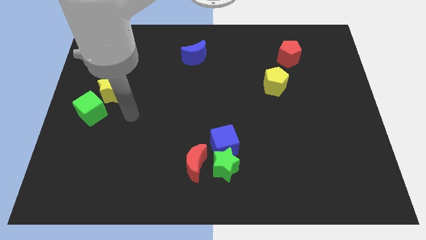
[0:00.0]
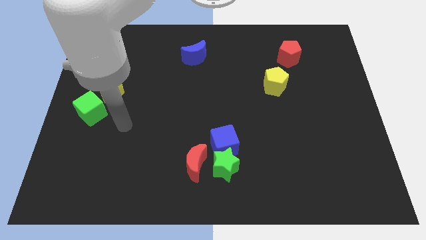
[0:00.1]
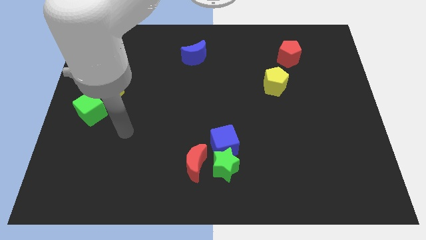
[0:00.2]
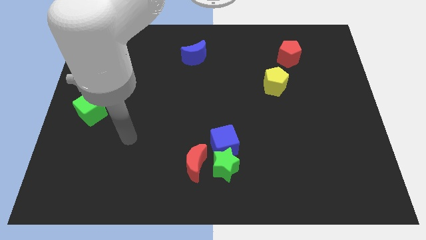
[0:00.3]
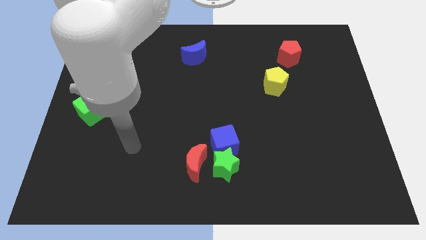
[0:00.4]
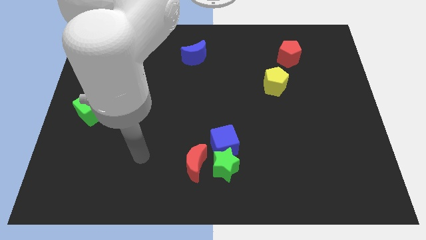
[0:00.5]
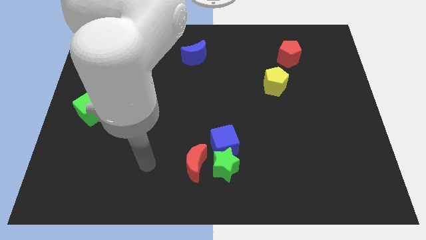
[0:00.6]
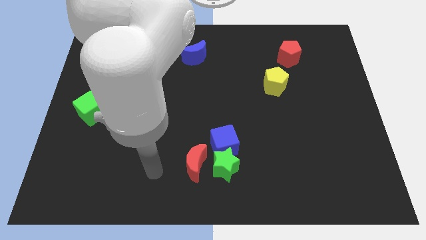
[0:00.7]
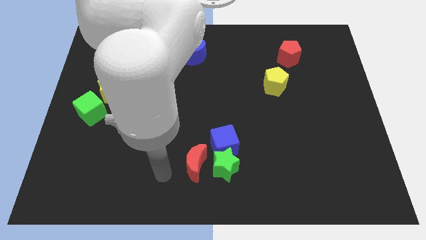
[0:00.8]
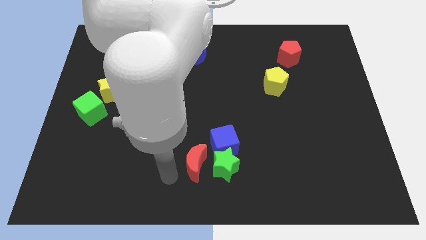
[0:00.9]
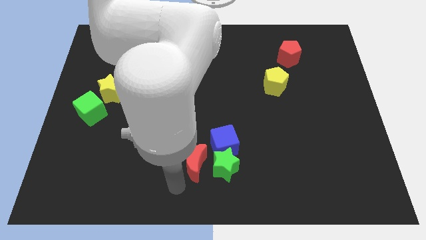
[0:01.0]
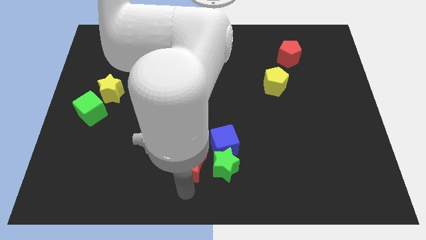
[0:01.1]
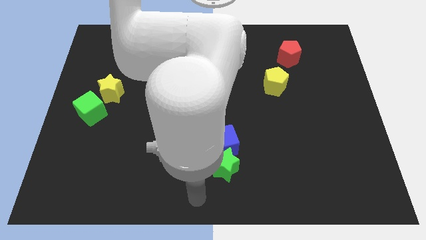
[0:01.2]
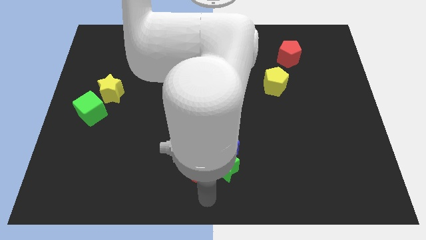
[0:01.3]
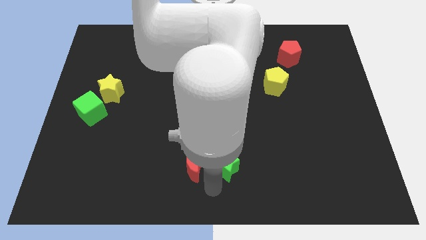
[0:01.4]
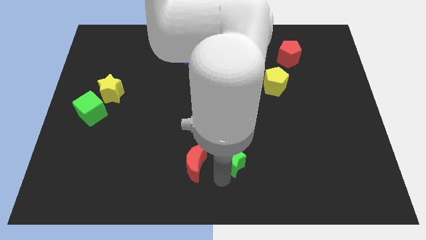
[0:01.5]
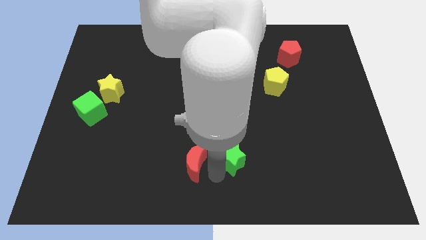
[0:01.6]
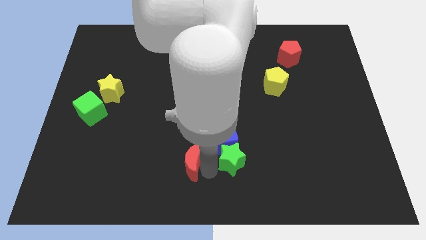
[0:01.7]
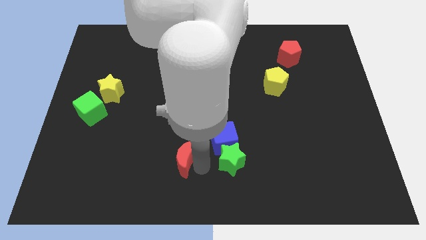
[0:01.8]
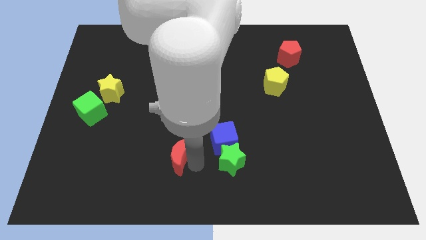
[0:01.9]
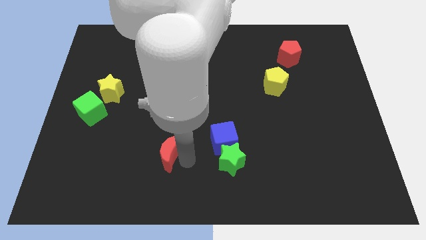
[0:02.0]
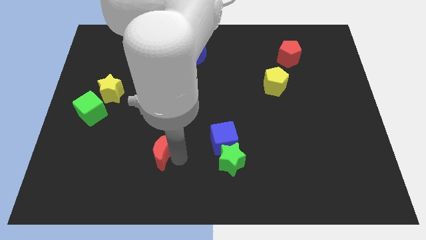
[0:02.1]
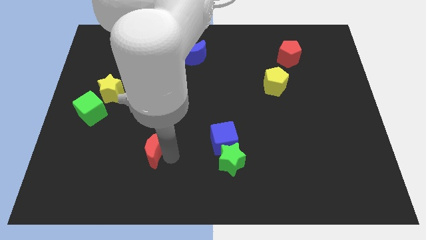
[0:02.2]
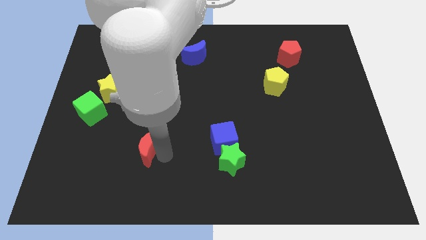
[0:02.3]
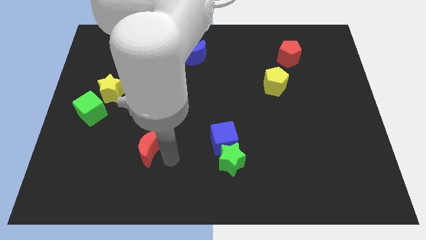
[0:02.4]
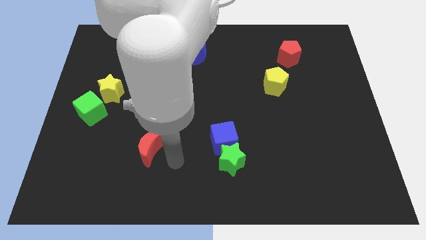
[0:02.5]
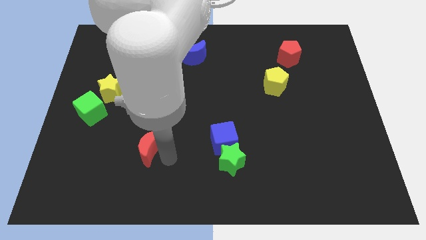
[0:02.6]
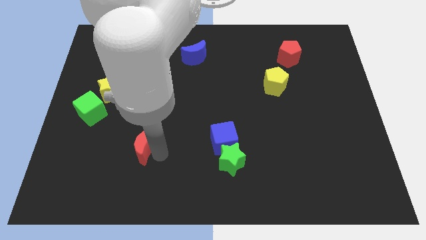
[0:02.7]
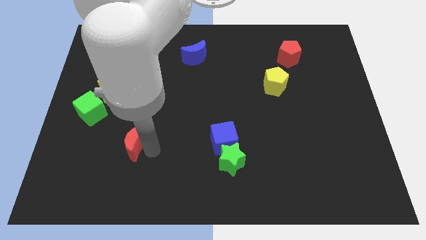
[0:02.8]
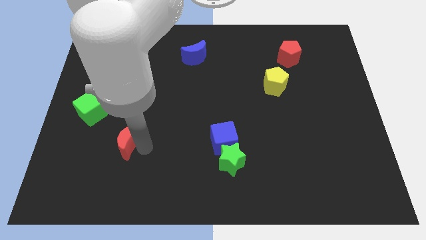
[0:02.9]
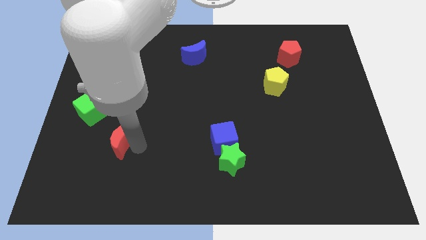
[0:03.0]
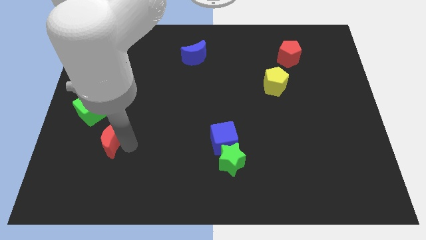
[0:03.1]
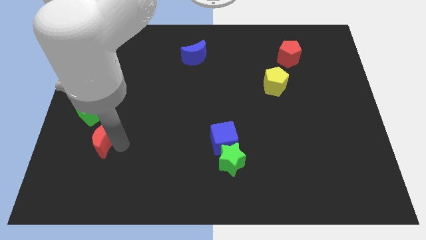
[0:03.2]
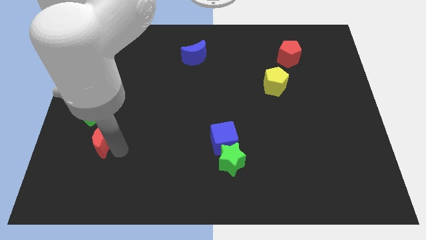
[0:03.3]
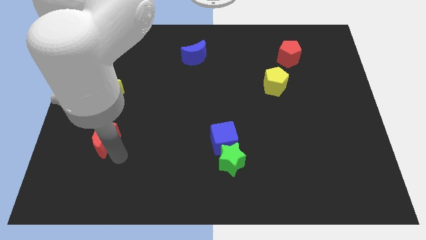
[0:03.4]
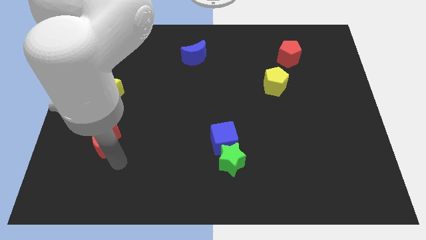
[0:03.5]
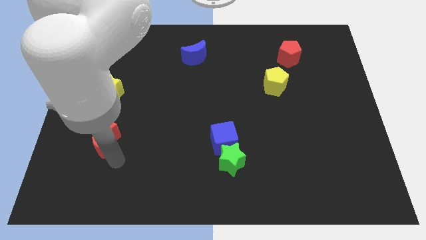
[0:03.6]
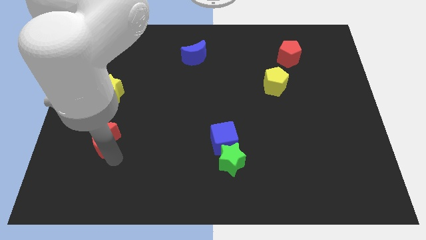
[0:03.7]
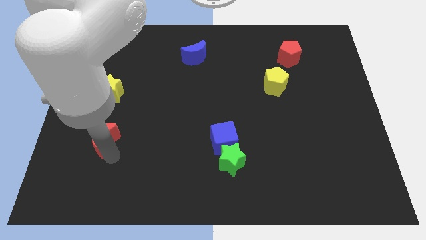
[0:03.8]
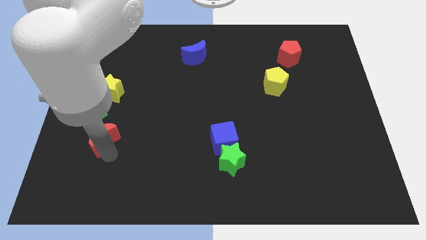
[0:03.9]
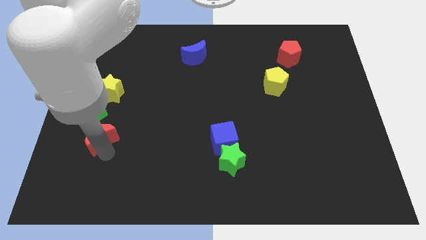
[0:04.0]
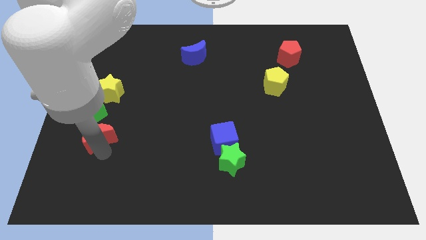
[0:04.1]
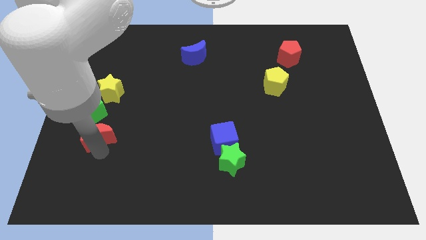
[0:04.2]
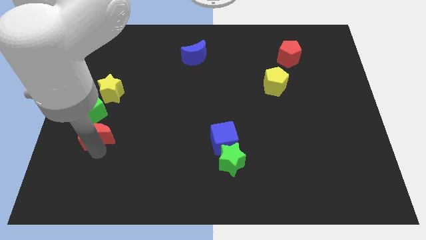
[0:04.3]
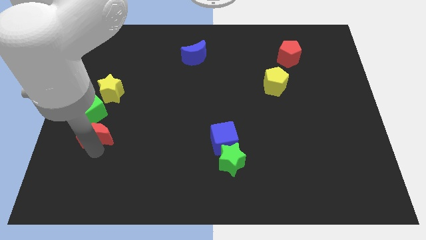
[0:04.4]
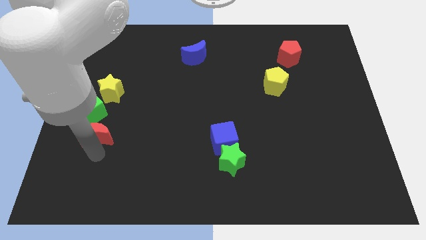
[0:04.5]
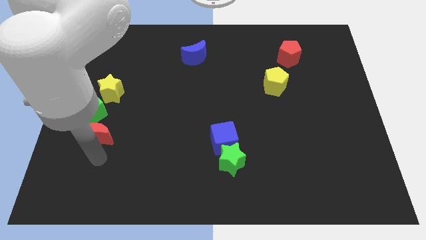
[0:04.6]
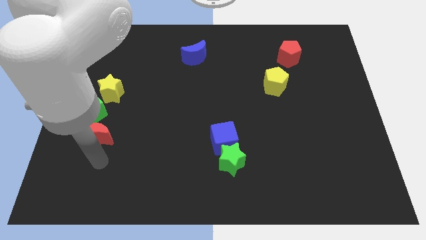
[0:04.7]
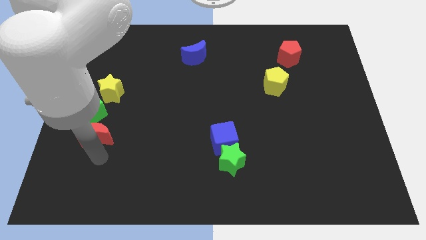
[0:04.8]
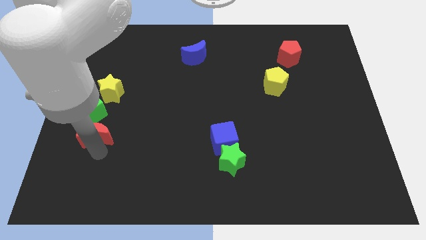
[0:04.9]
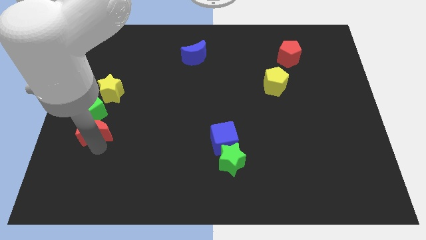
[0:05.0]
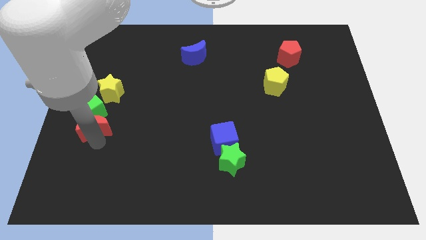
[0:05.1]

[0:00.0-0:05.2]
move the red moon close to the green cube

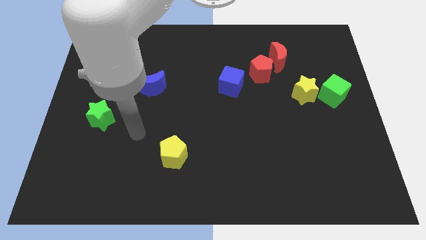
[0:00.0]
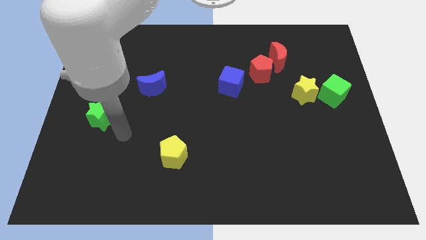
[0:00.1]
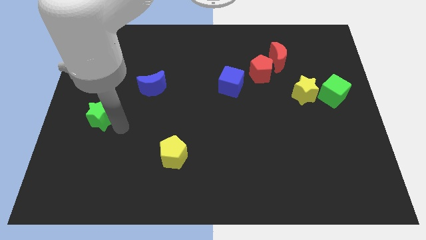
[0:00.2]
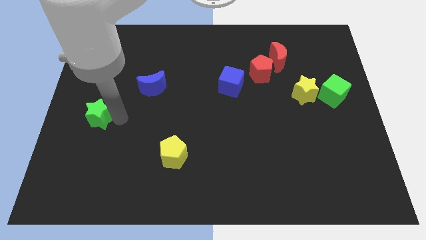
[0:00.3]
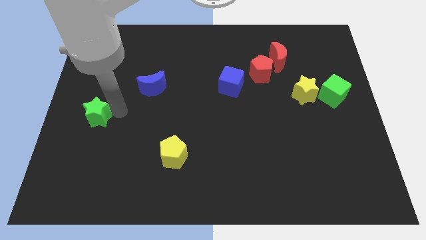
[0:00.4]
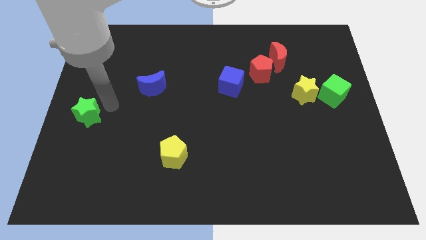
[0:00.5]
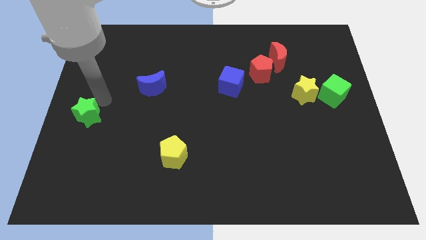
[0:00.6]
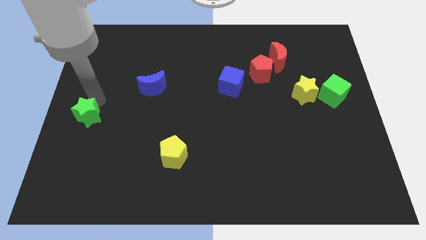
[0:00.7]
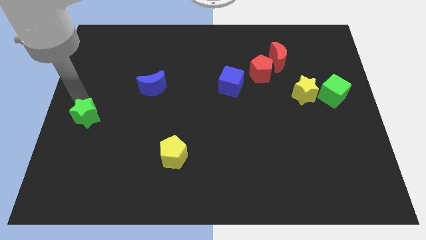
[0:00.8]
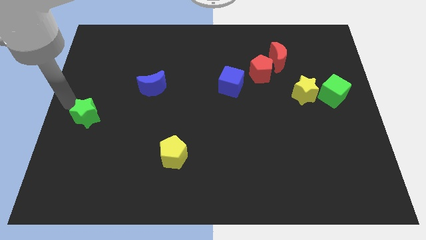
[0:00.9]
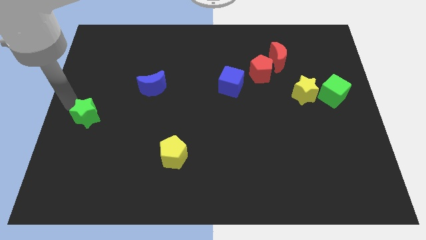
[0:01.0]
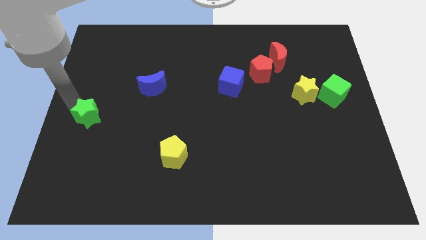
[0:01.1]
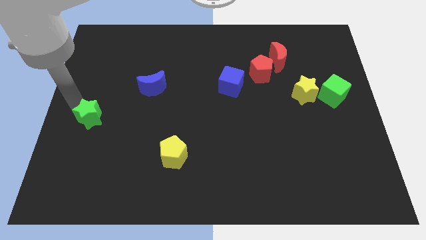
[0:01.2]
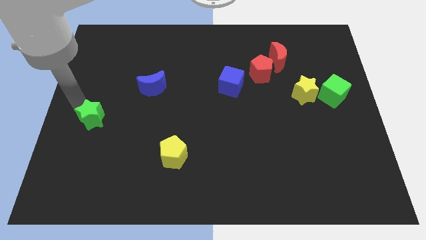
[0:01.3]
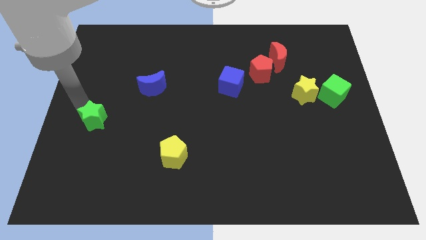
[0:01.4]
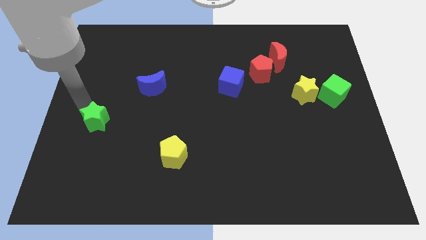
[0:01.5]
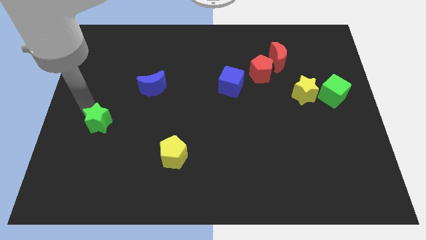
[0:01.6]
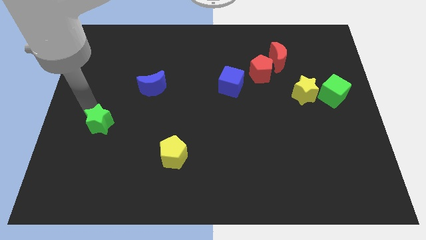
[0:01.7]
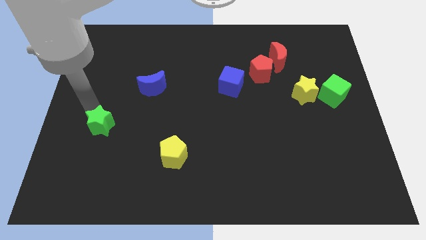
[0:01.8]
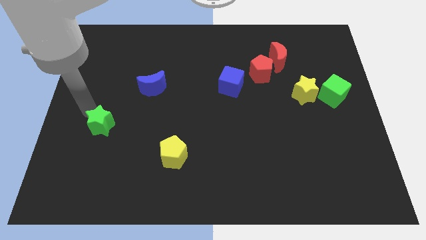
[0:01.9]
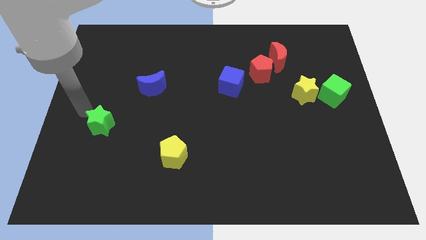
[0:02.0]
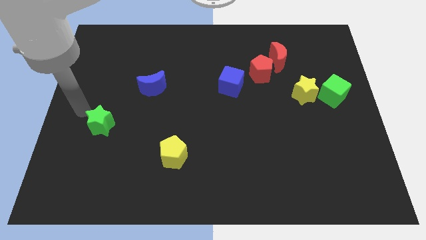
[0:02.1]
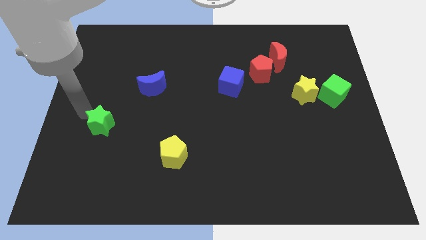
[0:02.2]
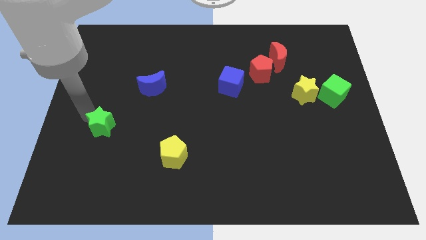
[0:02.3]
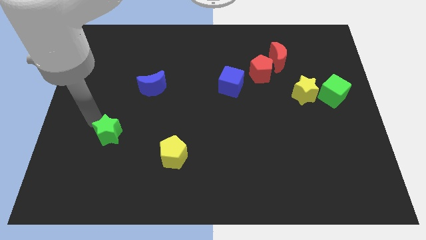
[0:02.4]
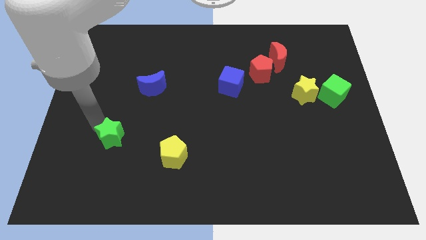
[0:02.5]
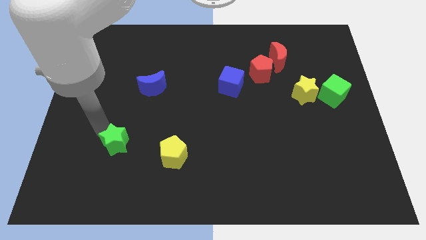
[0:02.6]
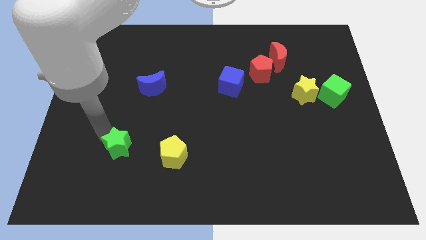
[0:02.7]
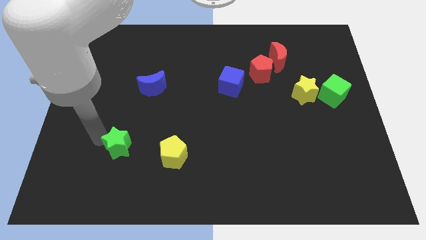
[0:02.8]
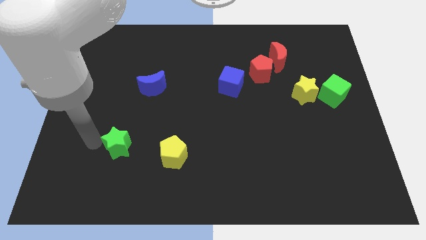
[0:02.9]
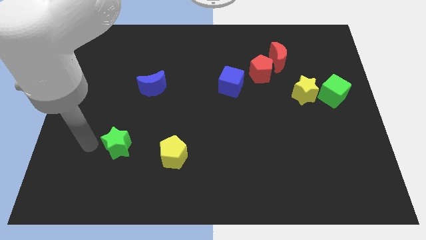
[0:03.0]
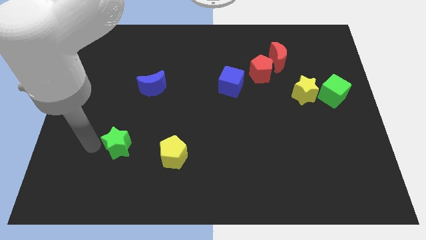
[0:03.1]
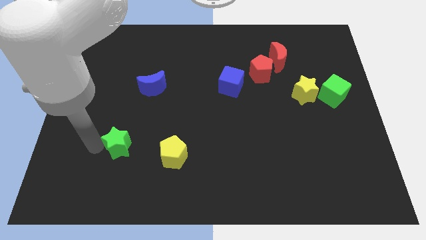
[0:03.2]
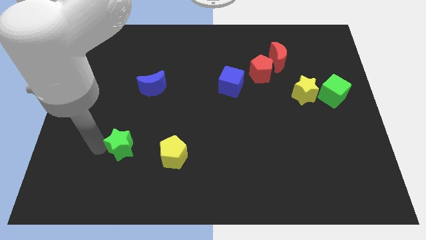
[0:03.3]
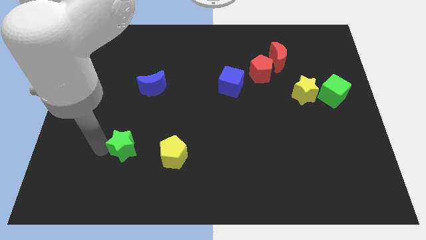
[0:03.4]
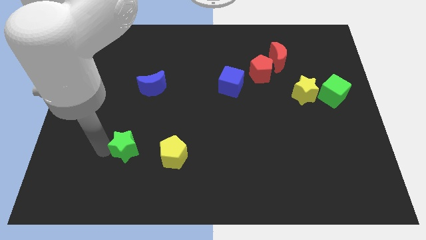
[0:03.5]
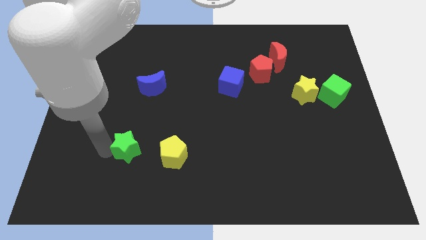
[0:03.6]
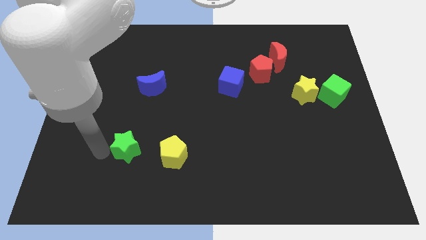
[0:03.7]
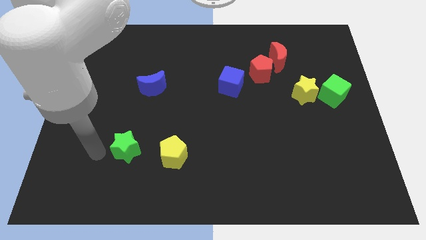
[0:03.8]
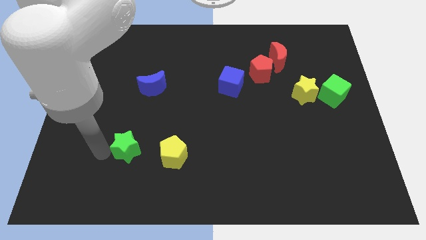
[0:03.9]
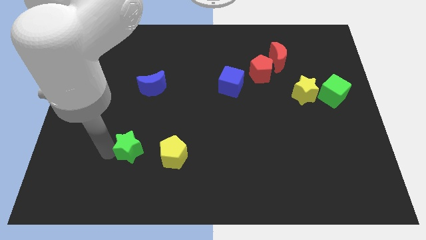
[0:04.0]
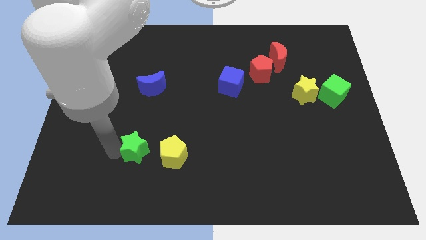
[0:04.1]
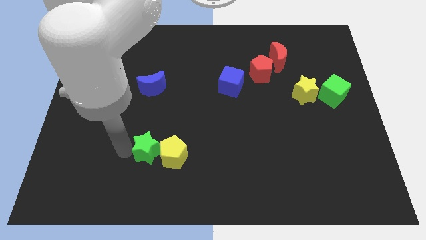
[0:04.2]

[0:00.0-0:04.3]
push the green star next to the yellow pentagon
